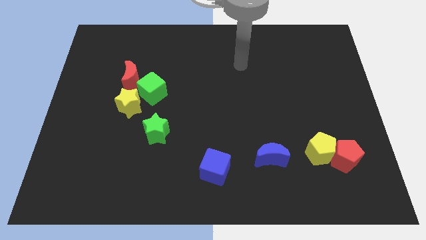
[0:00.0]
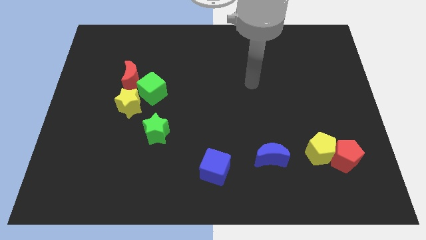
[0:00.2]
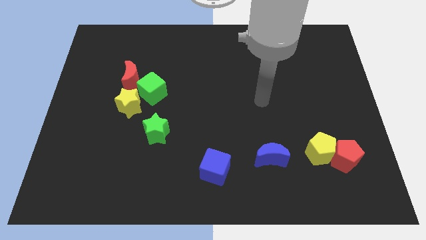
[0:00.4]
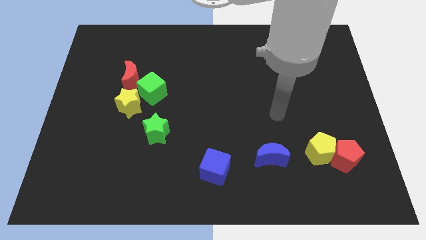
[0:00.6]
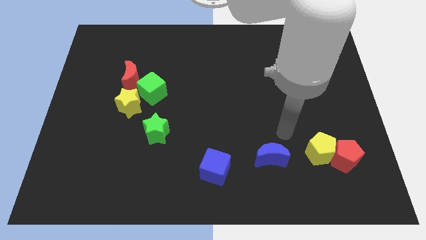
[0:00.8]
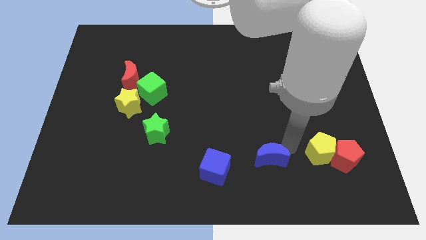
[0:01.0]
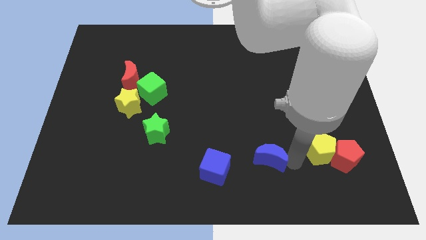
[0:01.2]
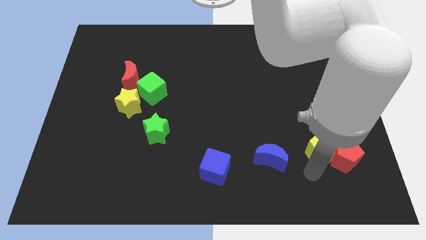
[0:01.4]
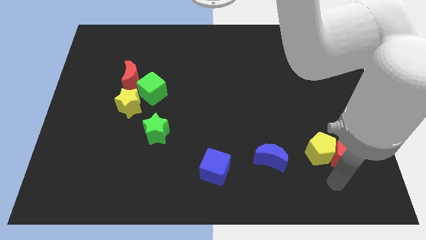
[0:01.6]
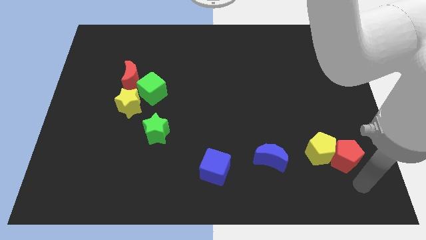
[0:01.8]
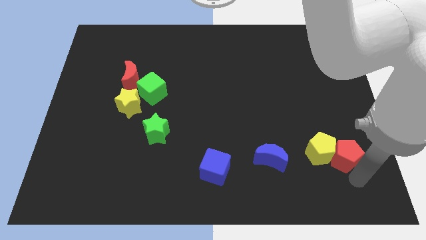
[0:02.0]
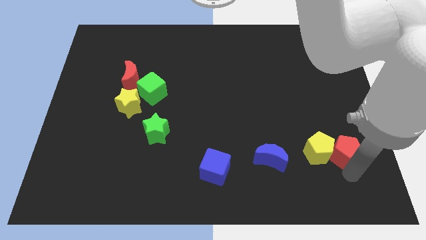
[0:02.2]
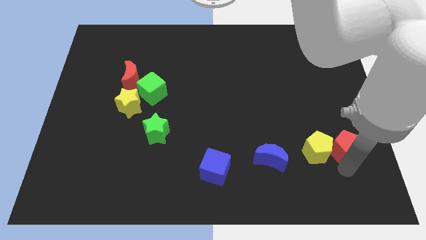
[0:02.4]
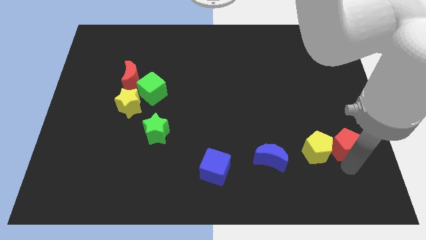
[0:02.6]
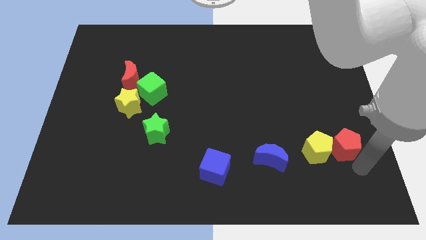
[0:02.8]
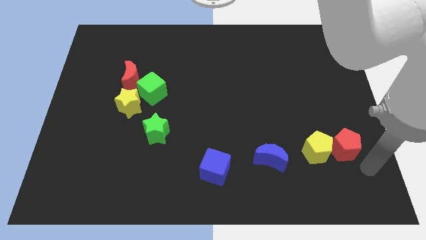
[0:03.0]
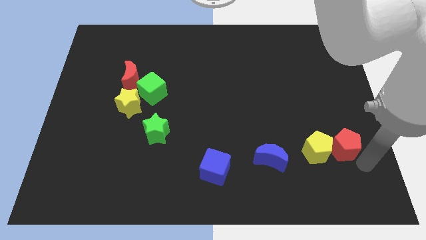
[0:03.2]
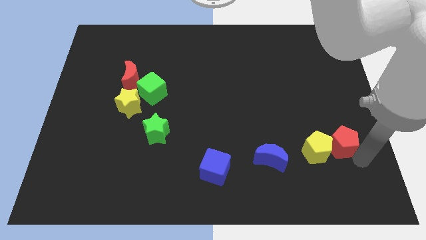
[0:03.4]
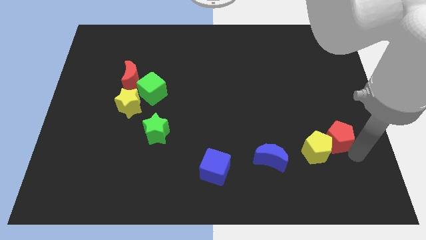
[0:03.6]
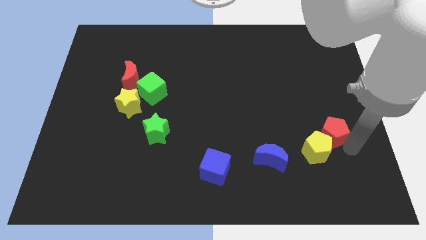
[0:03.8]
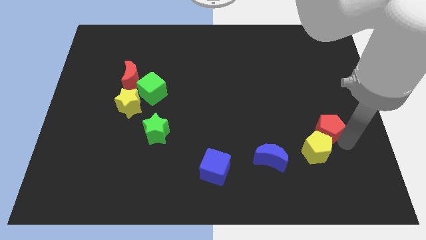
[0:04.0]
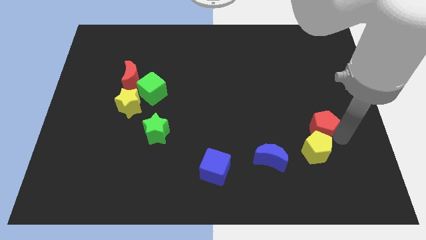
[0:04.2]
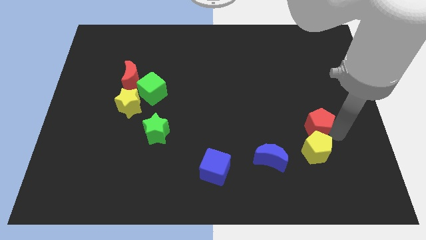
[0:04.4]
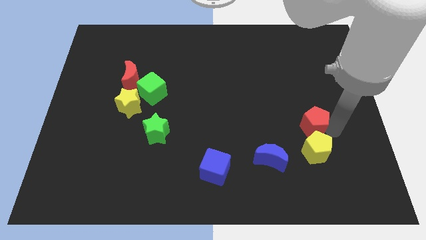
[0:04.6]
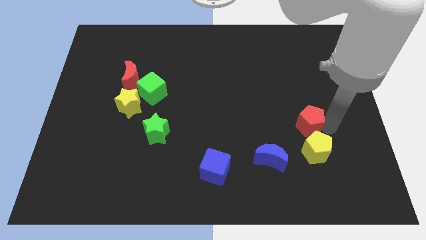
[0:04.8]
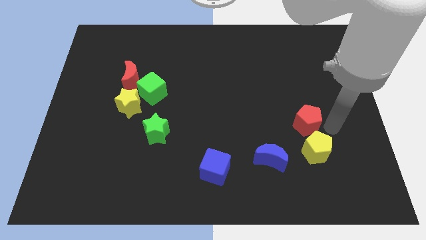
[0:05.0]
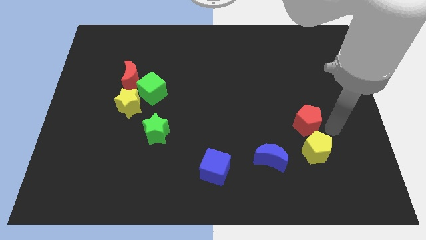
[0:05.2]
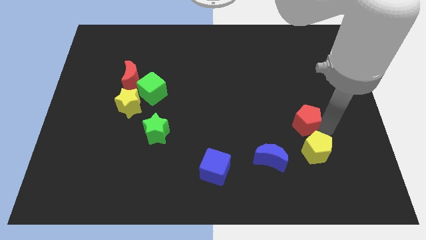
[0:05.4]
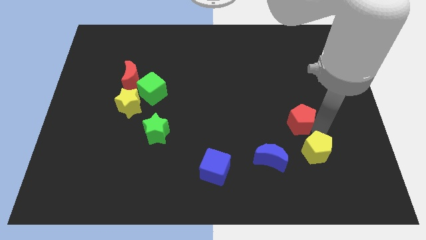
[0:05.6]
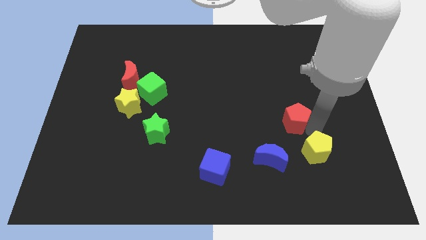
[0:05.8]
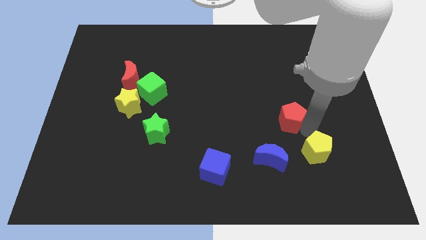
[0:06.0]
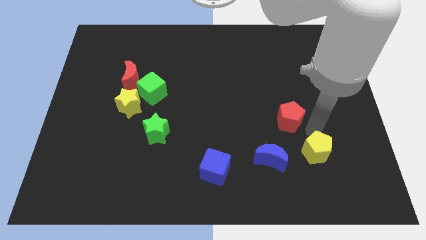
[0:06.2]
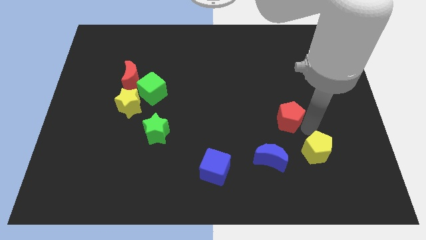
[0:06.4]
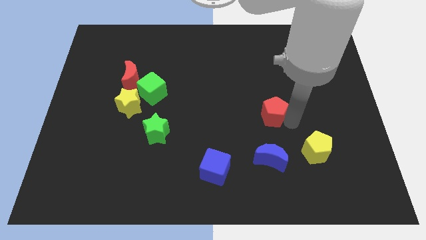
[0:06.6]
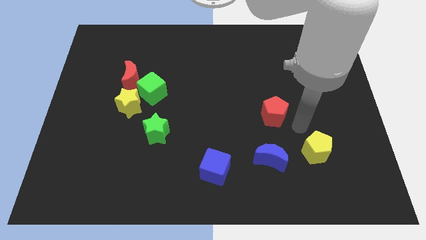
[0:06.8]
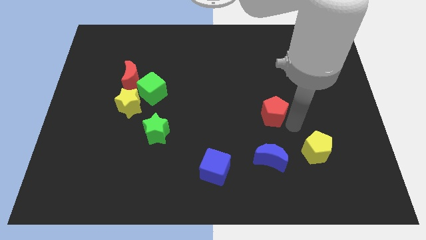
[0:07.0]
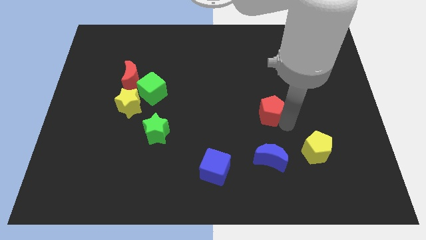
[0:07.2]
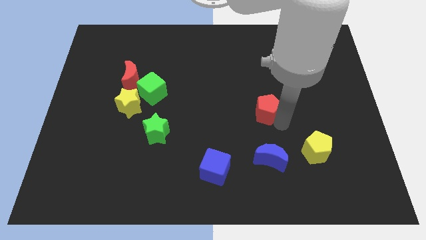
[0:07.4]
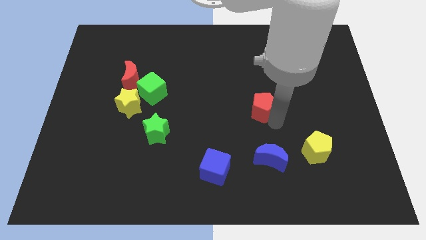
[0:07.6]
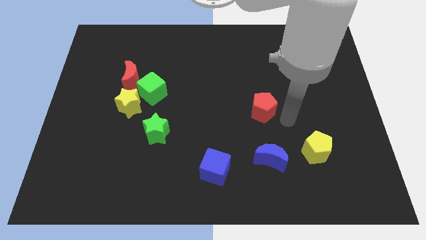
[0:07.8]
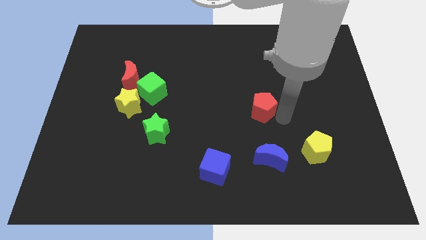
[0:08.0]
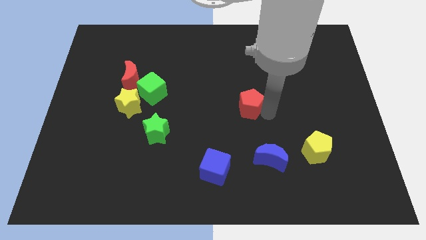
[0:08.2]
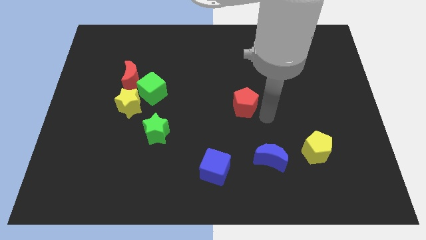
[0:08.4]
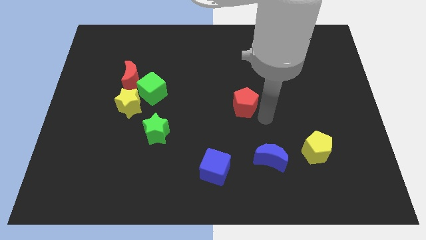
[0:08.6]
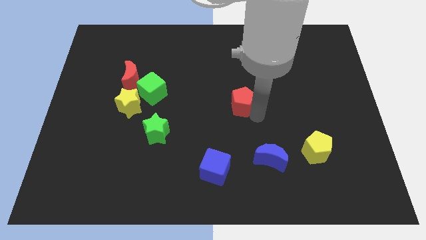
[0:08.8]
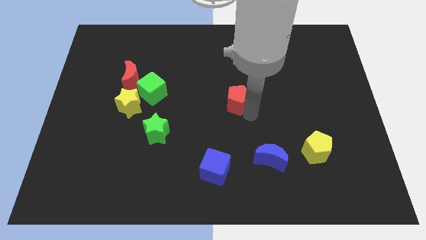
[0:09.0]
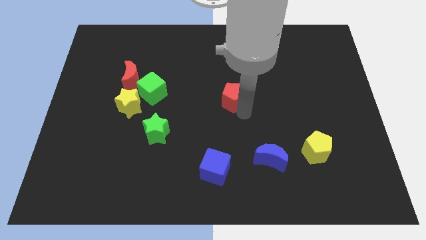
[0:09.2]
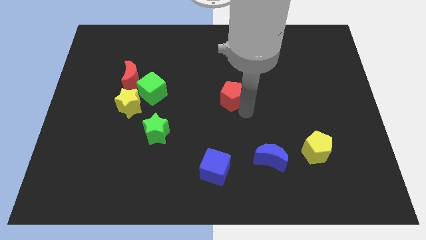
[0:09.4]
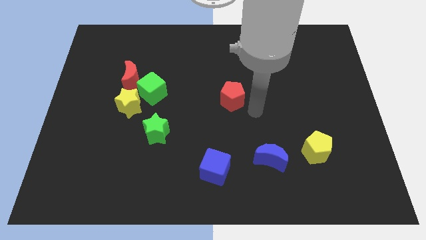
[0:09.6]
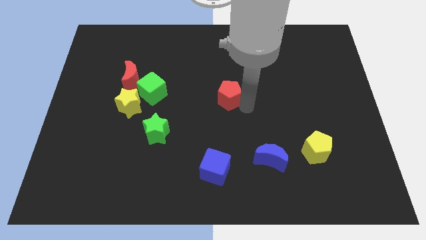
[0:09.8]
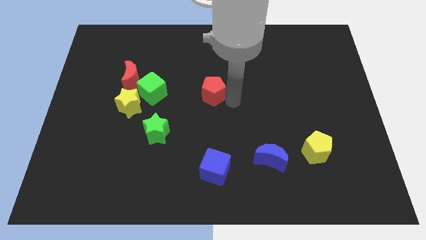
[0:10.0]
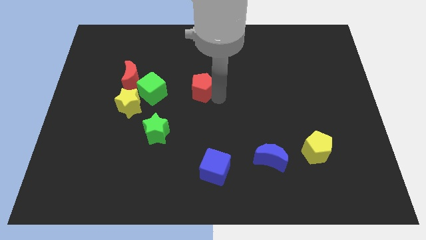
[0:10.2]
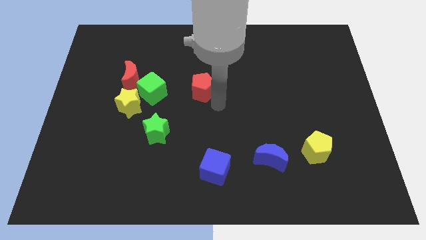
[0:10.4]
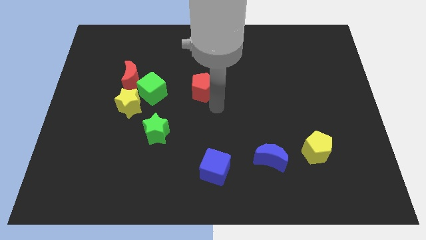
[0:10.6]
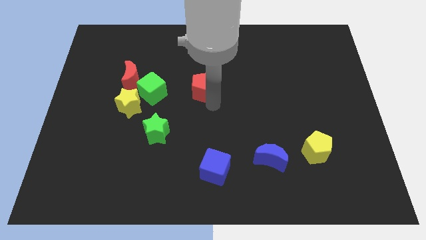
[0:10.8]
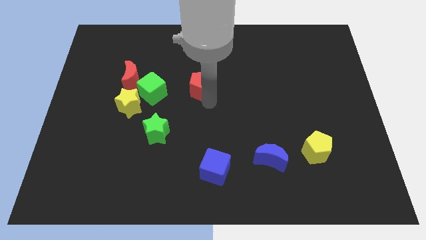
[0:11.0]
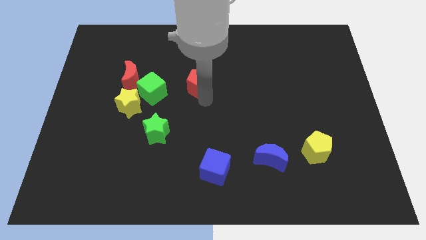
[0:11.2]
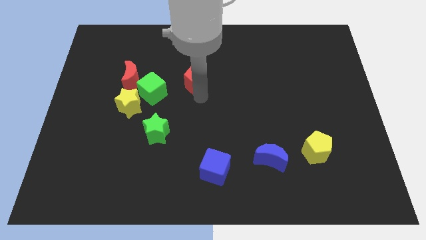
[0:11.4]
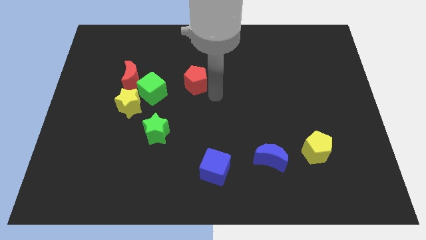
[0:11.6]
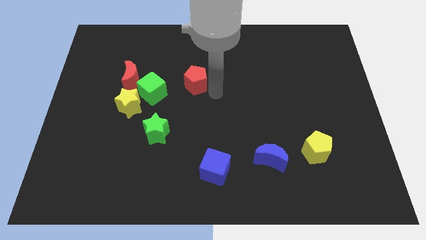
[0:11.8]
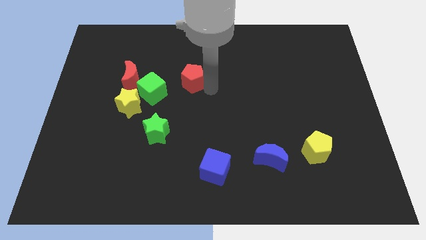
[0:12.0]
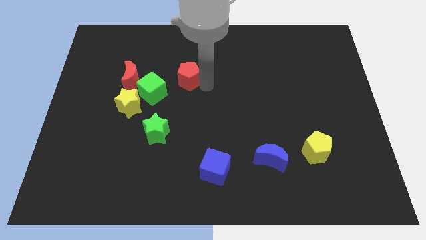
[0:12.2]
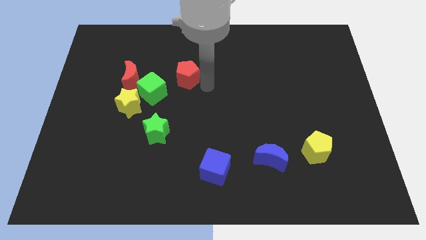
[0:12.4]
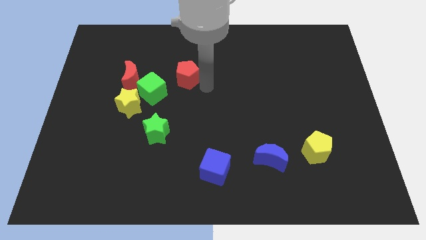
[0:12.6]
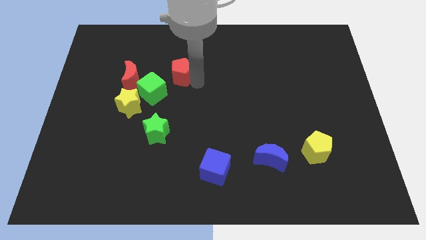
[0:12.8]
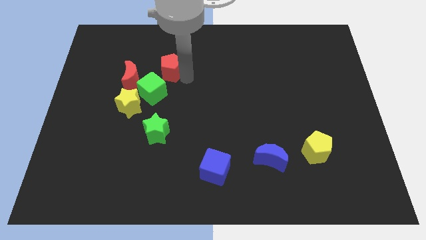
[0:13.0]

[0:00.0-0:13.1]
slide the red pentagon diagonally up and to the right of the red moon
